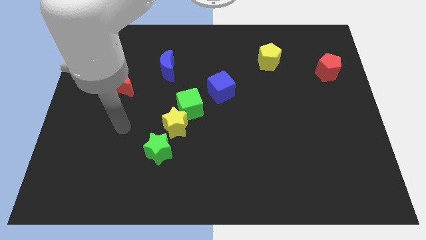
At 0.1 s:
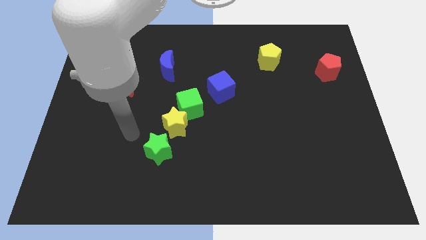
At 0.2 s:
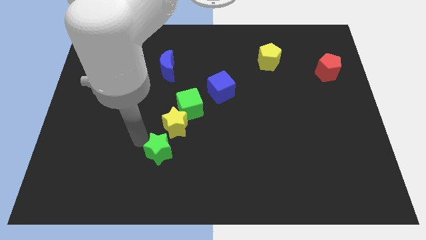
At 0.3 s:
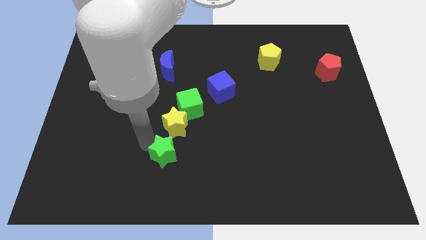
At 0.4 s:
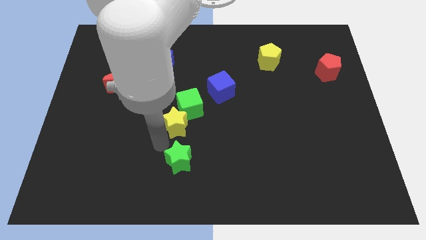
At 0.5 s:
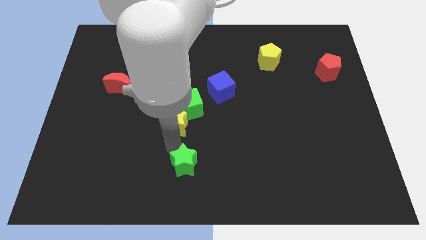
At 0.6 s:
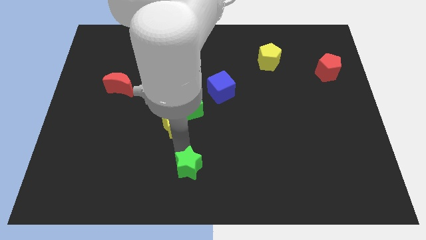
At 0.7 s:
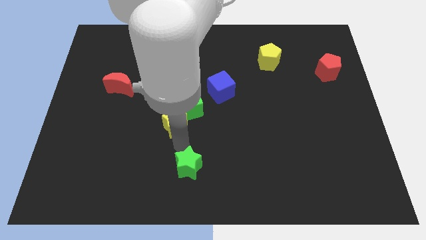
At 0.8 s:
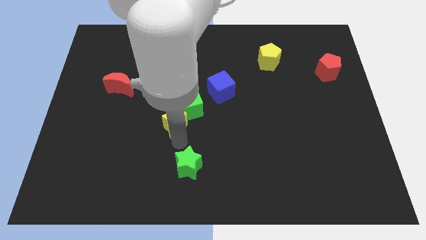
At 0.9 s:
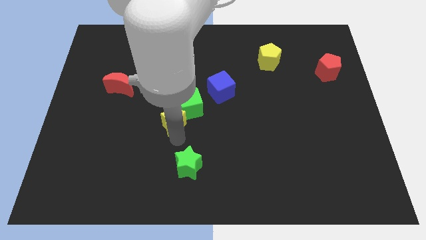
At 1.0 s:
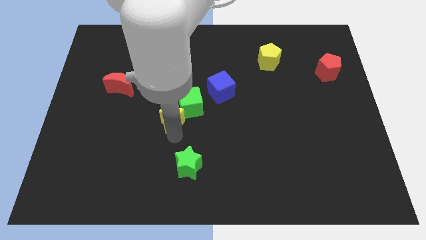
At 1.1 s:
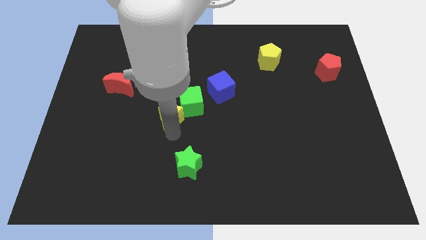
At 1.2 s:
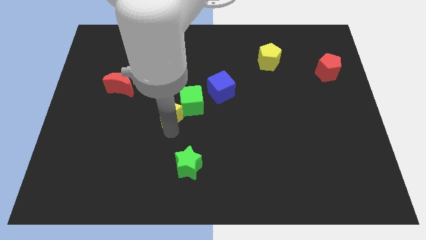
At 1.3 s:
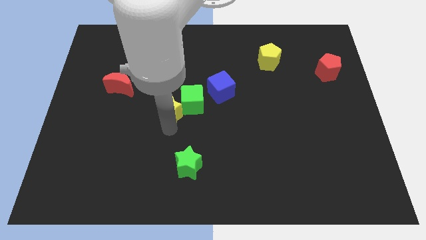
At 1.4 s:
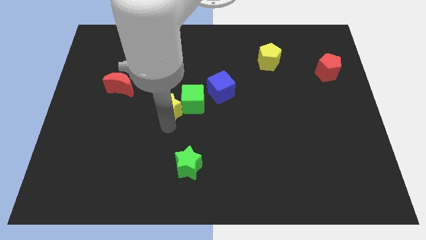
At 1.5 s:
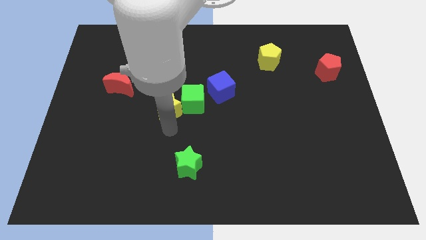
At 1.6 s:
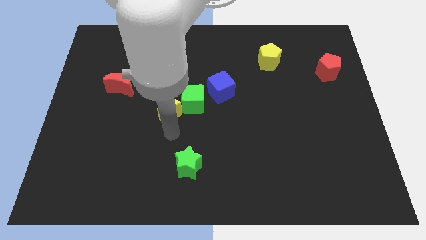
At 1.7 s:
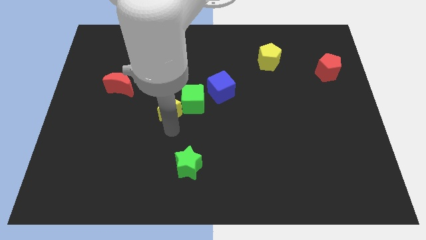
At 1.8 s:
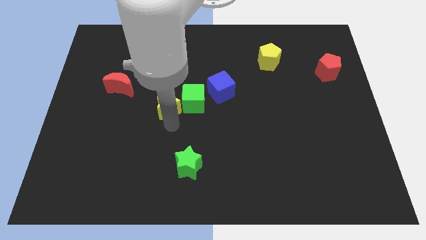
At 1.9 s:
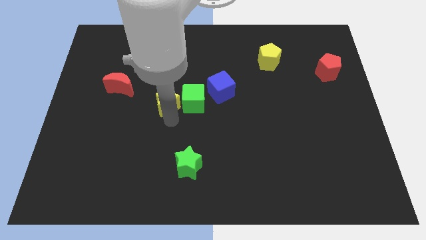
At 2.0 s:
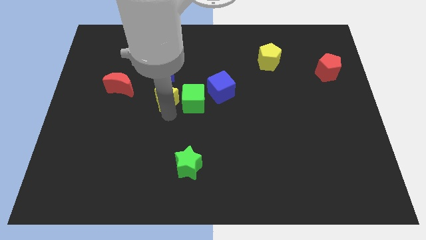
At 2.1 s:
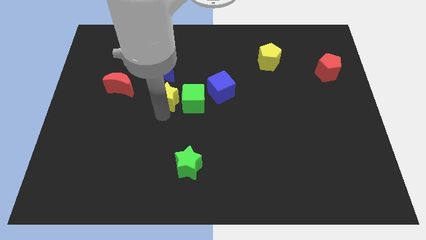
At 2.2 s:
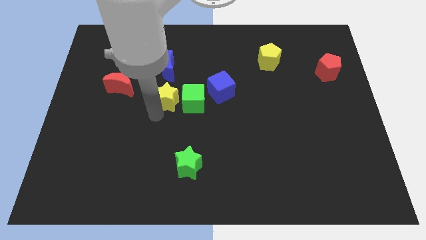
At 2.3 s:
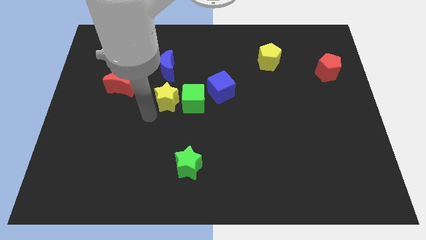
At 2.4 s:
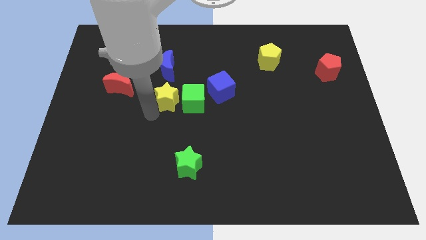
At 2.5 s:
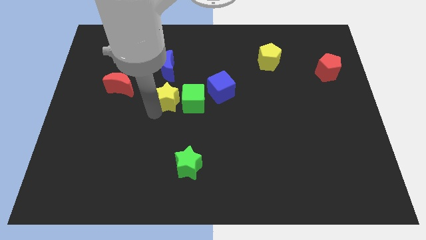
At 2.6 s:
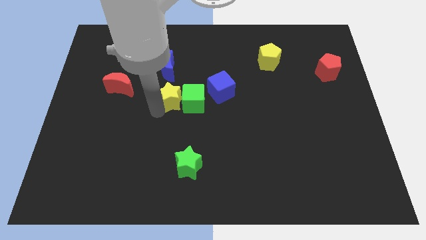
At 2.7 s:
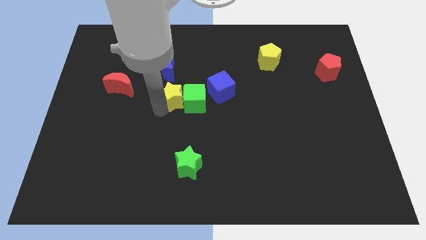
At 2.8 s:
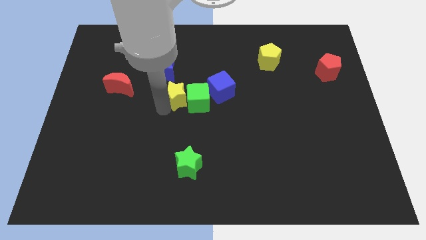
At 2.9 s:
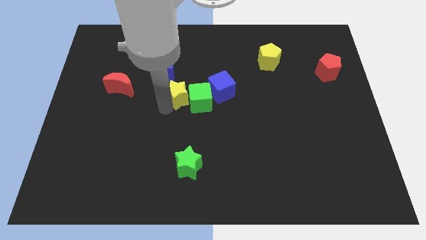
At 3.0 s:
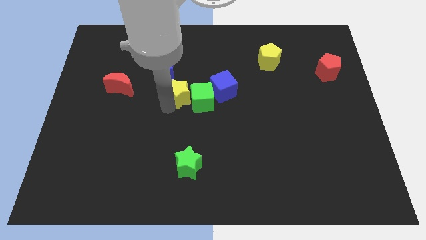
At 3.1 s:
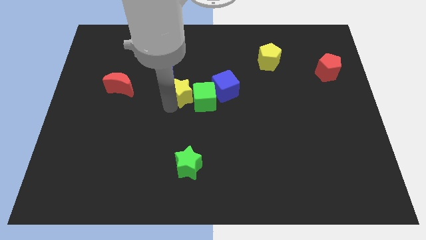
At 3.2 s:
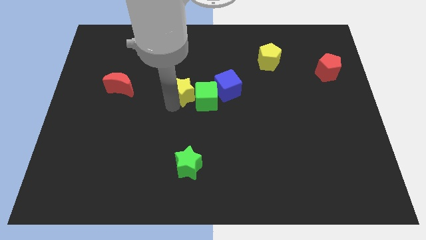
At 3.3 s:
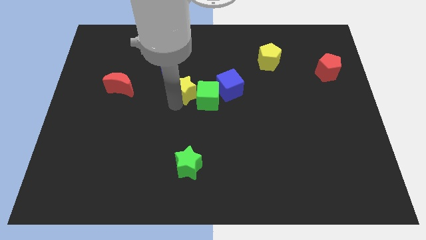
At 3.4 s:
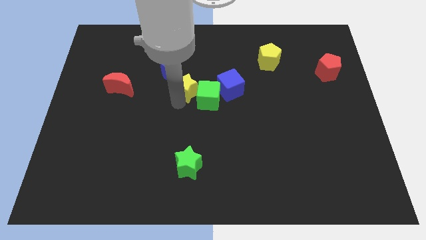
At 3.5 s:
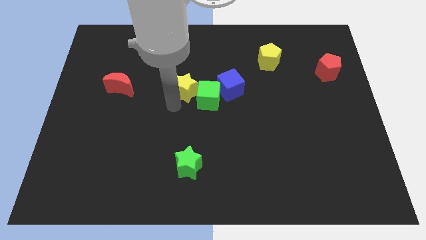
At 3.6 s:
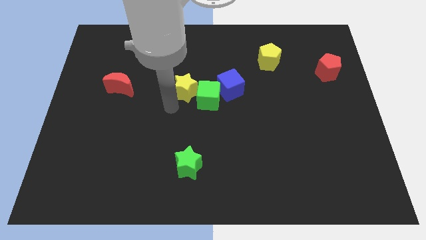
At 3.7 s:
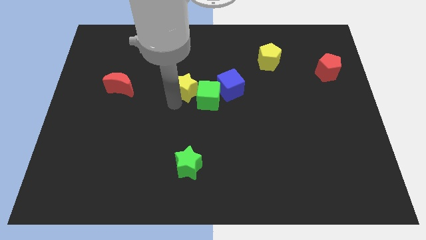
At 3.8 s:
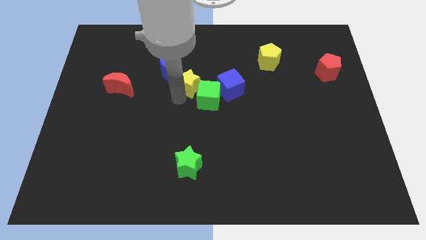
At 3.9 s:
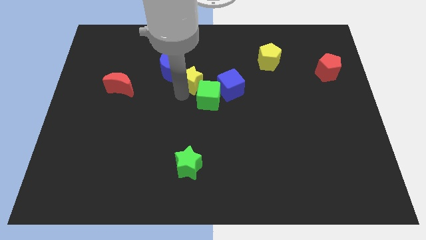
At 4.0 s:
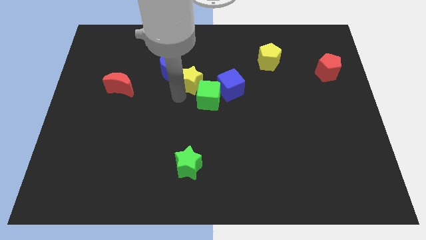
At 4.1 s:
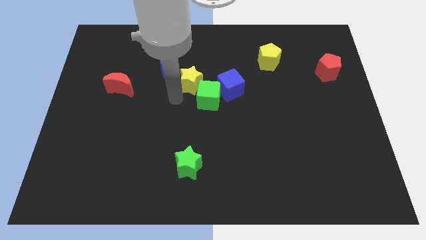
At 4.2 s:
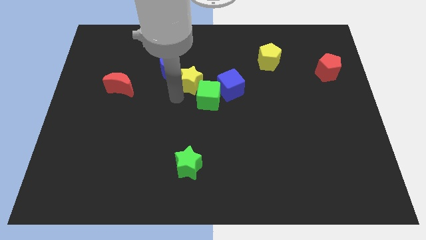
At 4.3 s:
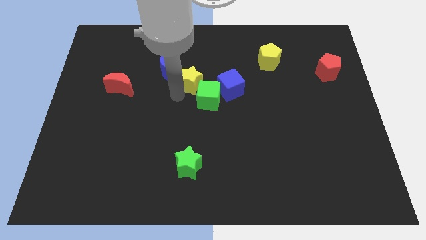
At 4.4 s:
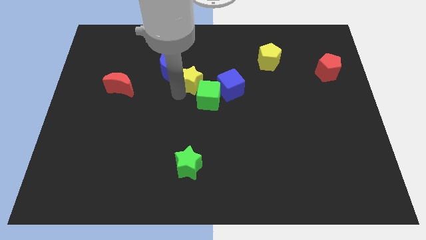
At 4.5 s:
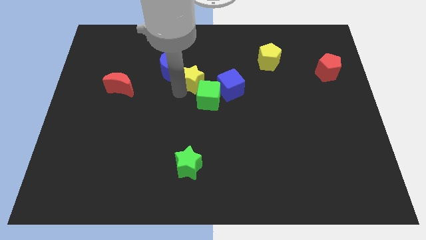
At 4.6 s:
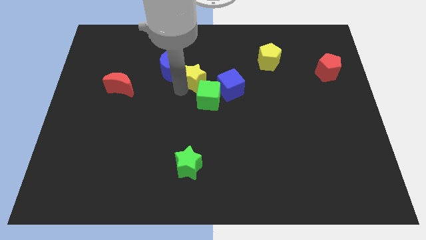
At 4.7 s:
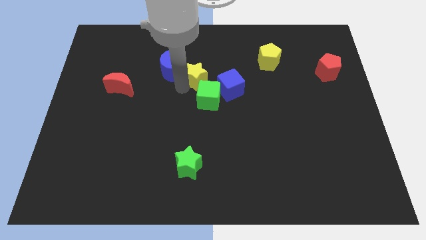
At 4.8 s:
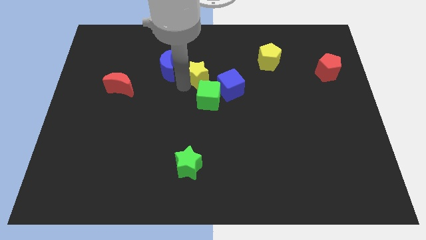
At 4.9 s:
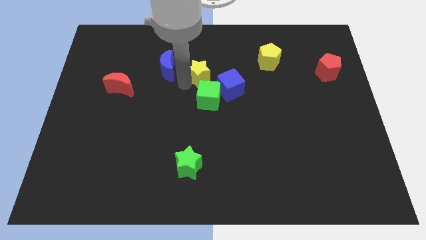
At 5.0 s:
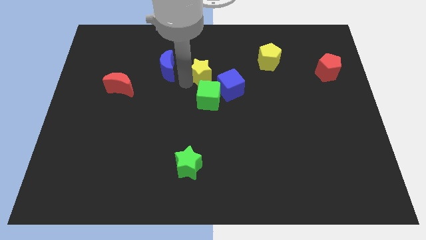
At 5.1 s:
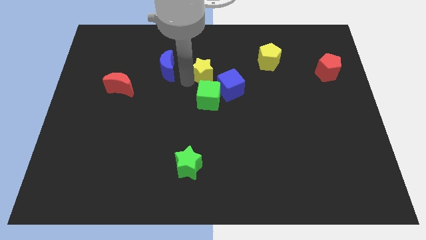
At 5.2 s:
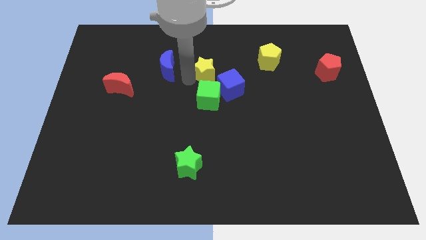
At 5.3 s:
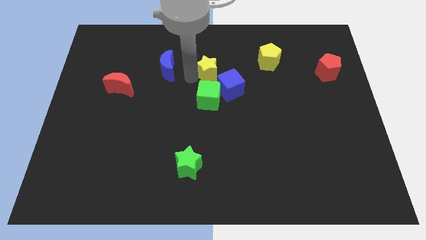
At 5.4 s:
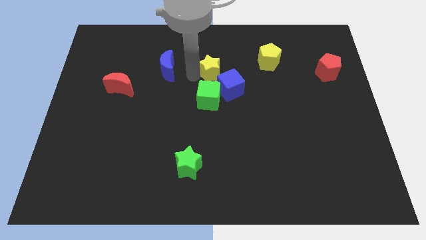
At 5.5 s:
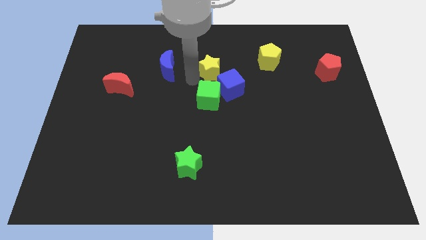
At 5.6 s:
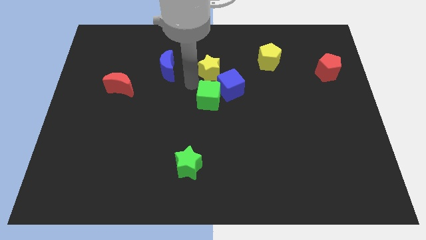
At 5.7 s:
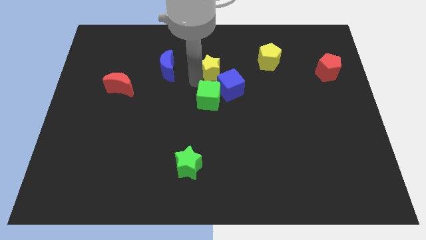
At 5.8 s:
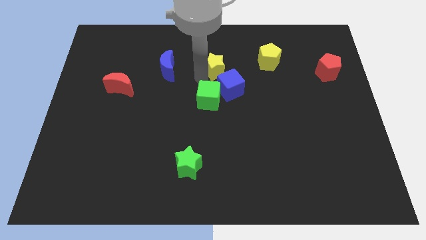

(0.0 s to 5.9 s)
push the yellow star to the left of the yellow pentagon

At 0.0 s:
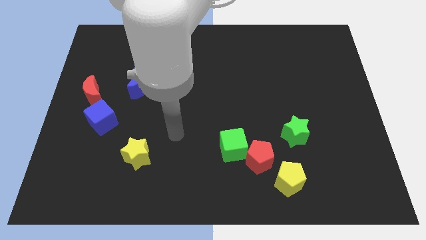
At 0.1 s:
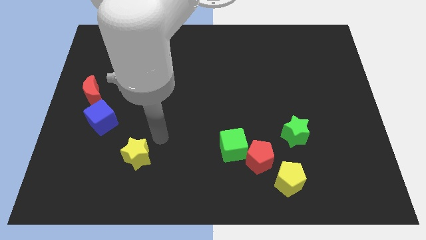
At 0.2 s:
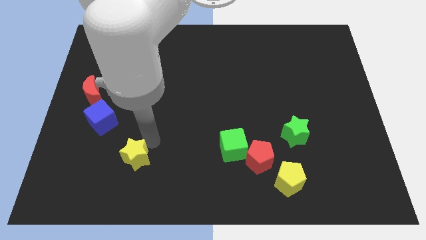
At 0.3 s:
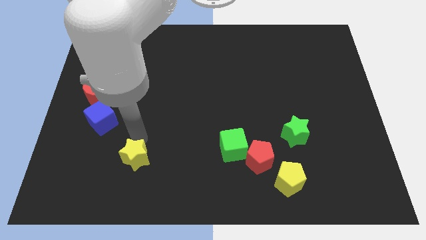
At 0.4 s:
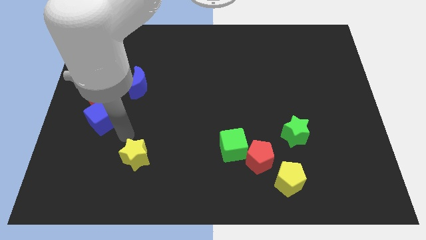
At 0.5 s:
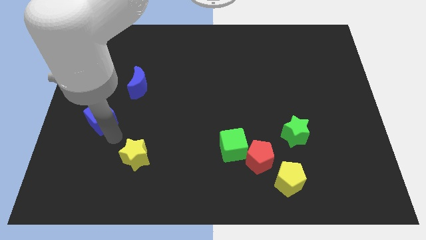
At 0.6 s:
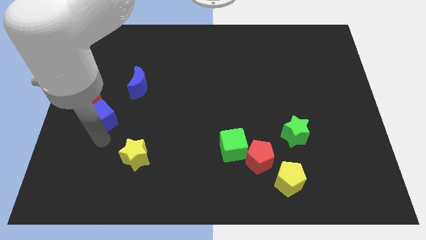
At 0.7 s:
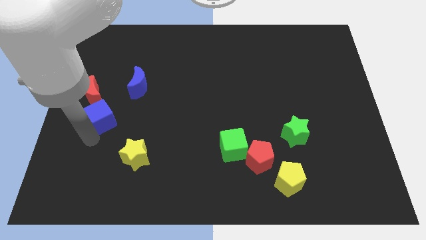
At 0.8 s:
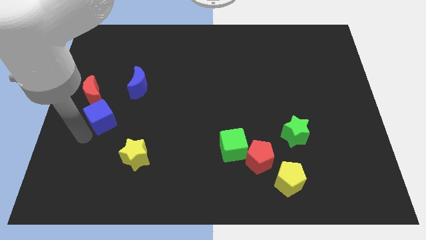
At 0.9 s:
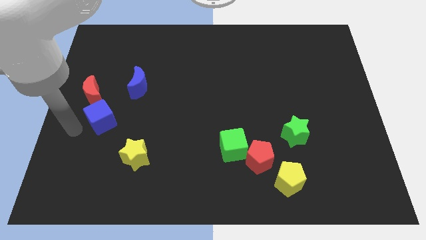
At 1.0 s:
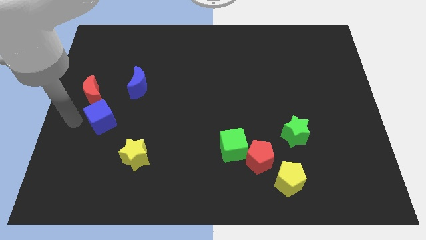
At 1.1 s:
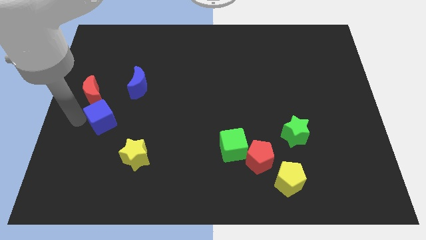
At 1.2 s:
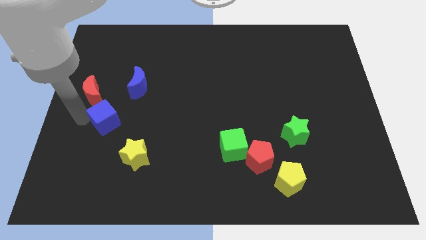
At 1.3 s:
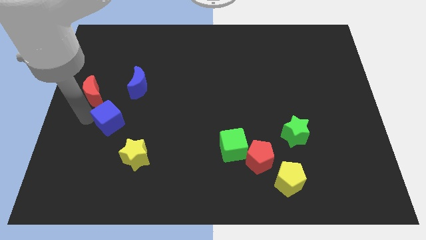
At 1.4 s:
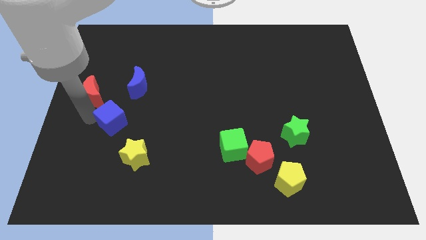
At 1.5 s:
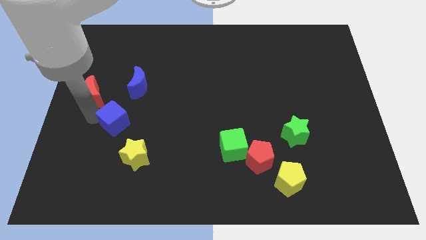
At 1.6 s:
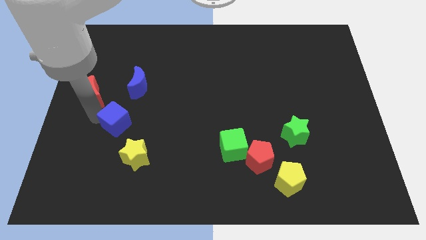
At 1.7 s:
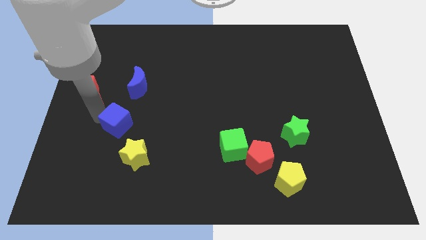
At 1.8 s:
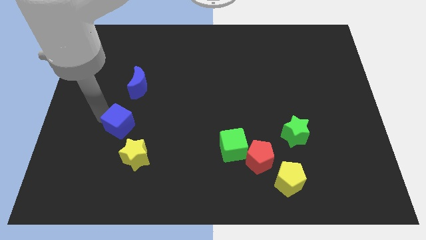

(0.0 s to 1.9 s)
slide the blue cube to the top of the yellow star

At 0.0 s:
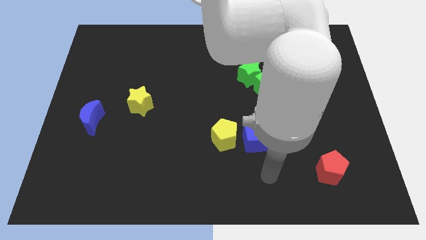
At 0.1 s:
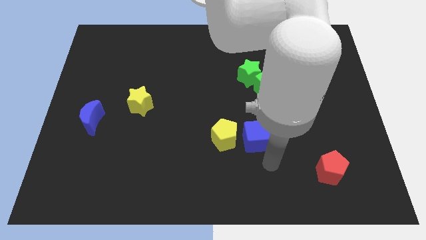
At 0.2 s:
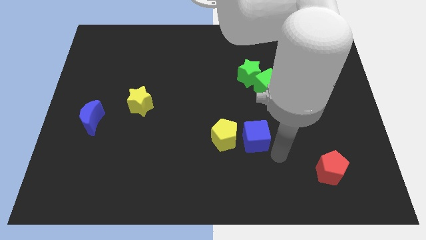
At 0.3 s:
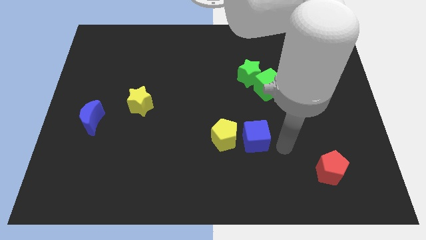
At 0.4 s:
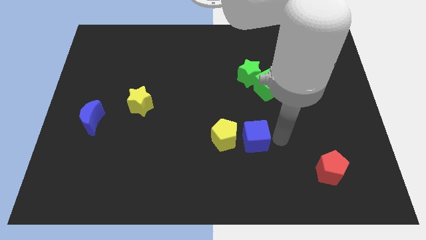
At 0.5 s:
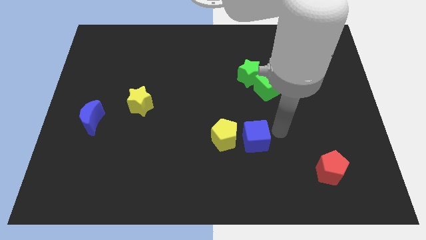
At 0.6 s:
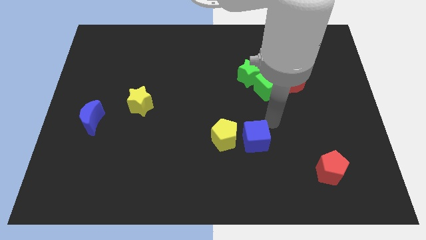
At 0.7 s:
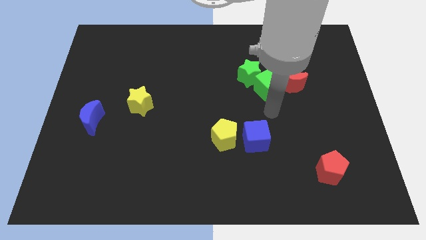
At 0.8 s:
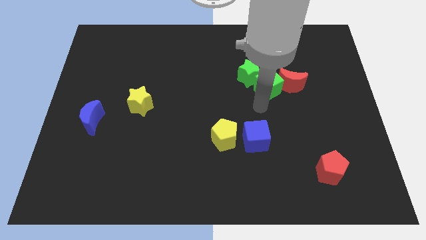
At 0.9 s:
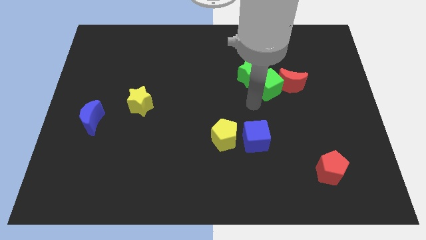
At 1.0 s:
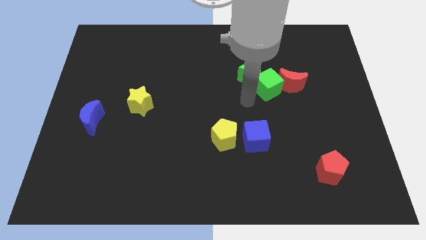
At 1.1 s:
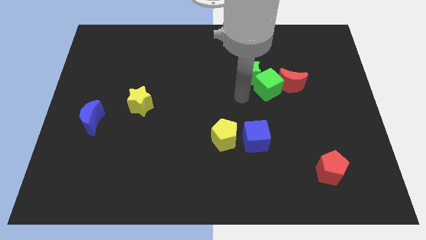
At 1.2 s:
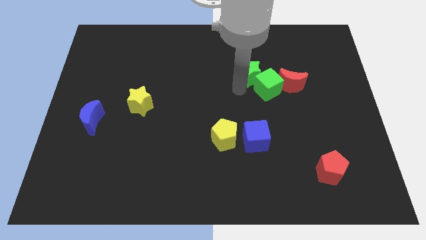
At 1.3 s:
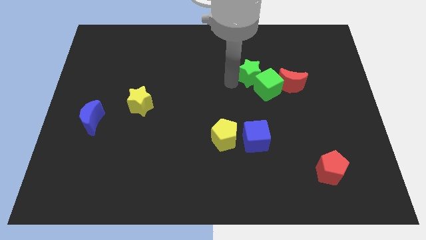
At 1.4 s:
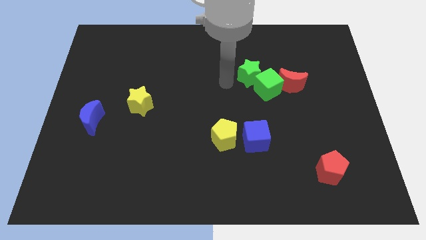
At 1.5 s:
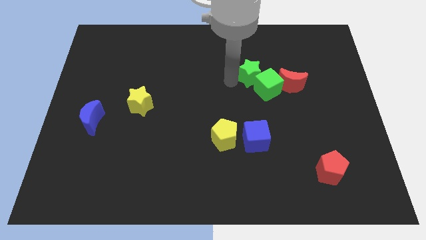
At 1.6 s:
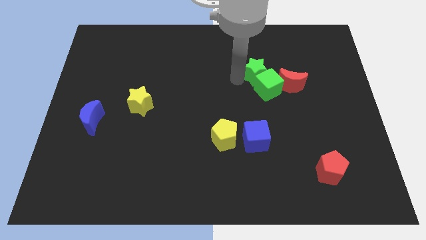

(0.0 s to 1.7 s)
move the green star to the top left side of the red moon
